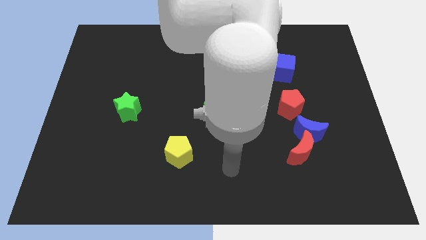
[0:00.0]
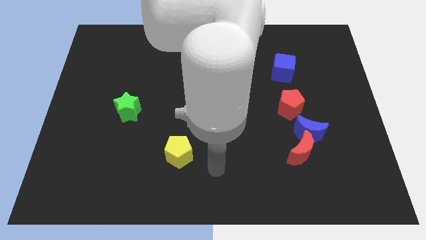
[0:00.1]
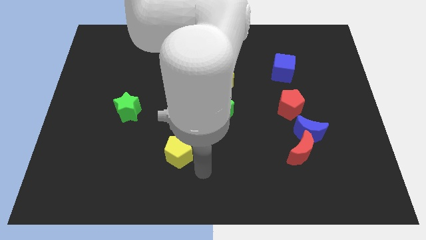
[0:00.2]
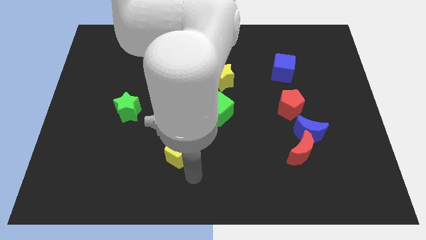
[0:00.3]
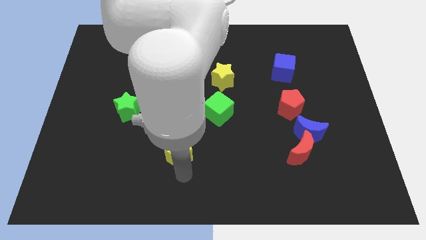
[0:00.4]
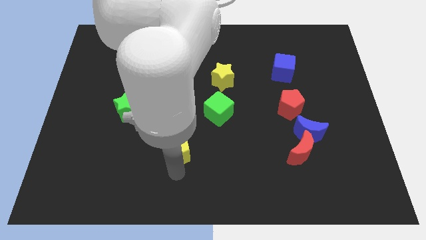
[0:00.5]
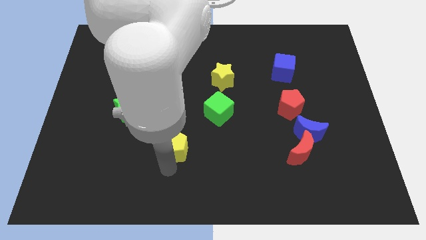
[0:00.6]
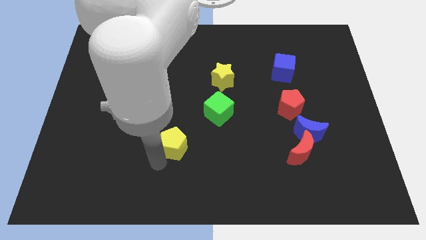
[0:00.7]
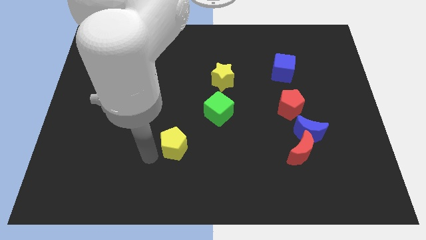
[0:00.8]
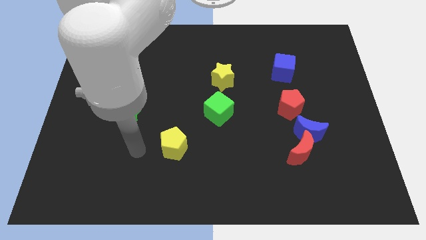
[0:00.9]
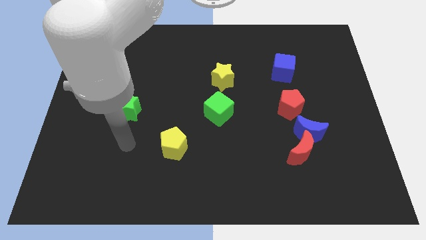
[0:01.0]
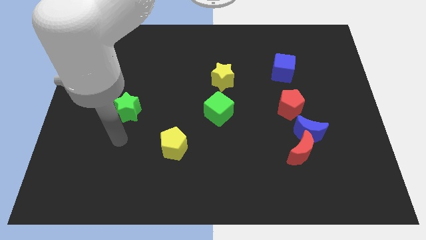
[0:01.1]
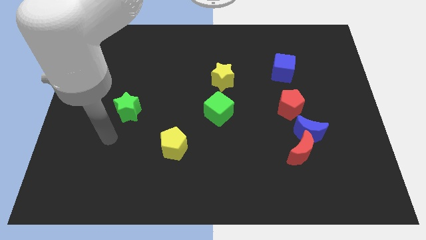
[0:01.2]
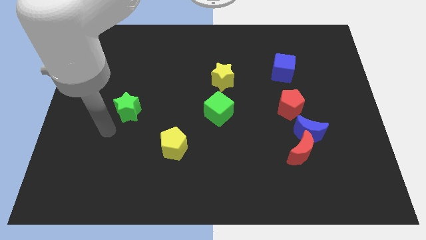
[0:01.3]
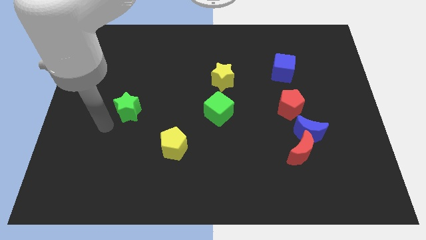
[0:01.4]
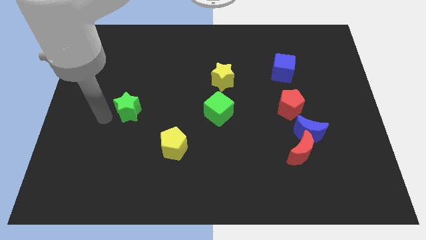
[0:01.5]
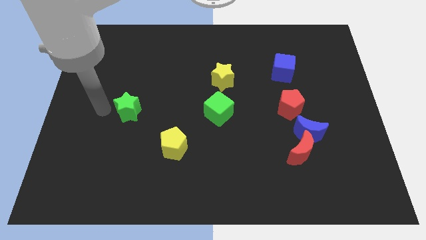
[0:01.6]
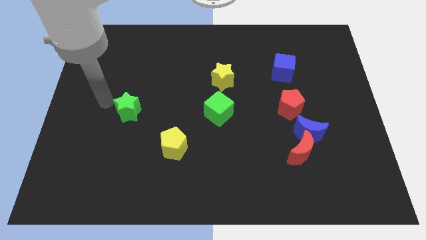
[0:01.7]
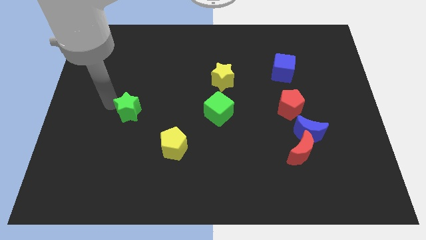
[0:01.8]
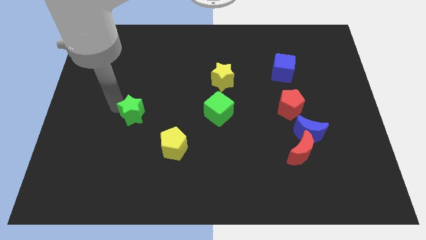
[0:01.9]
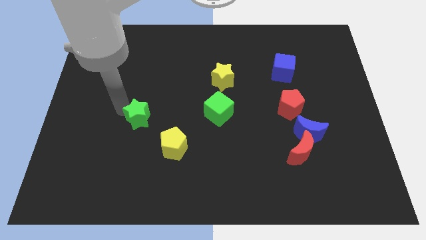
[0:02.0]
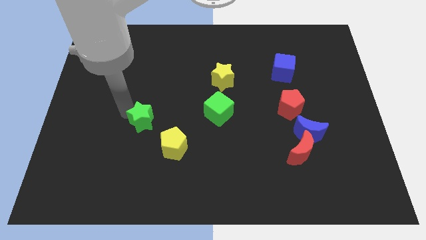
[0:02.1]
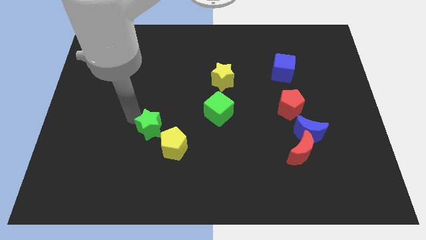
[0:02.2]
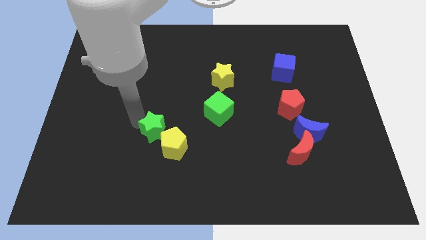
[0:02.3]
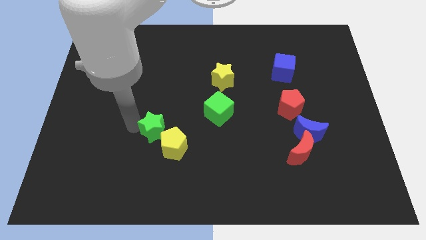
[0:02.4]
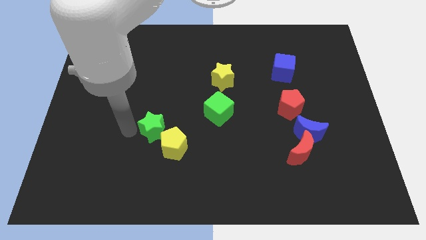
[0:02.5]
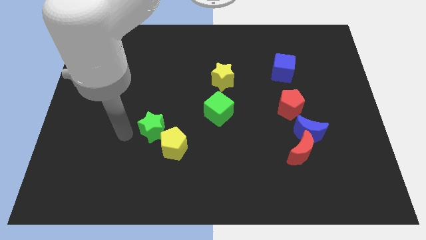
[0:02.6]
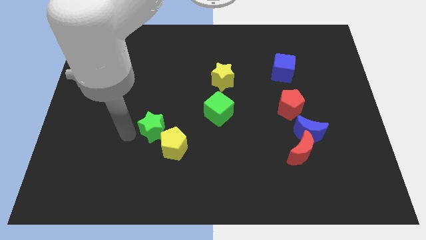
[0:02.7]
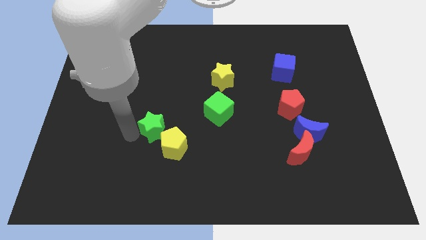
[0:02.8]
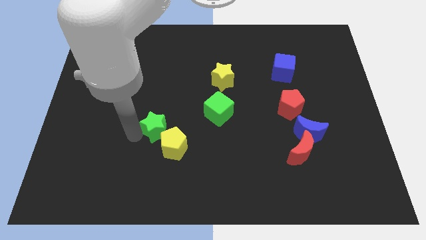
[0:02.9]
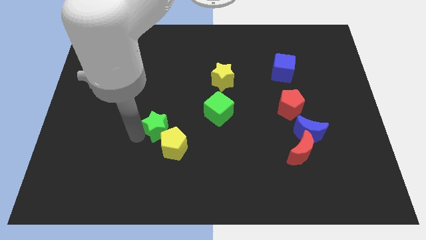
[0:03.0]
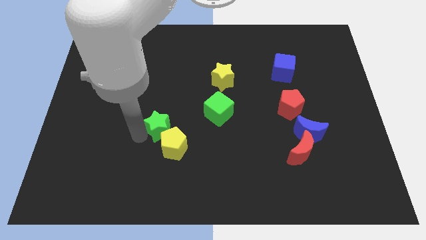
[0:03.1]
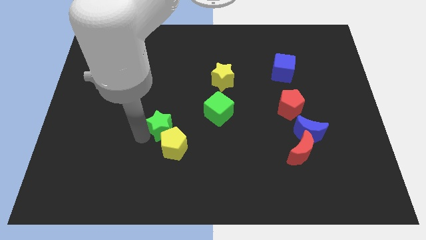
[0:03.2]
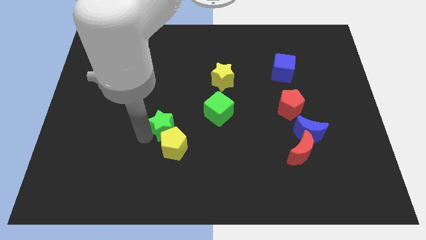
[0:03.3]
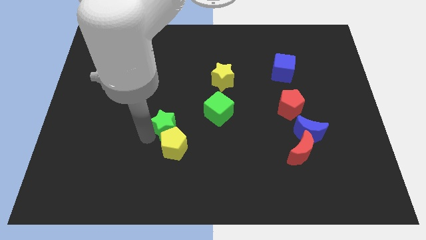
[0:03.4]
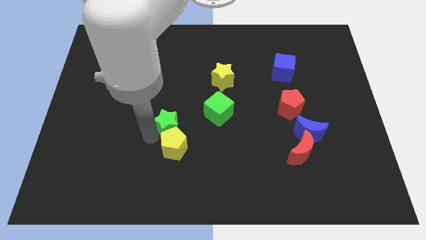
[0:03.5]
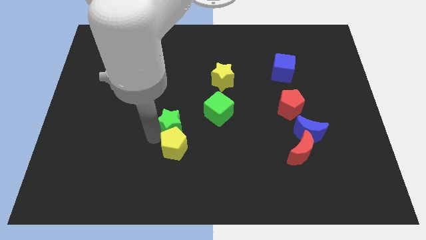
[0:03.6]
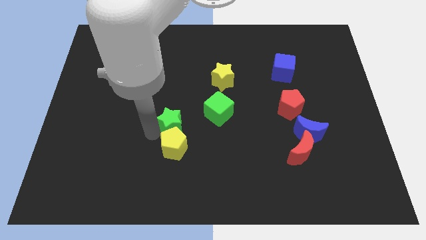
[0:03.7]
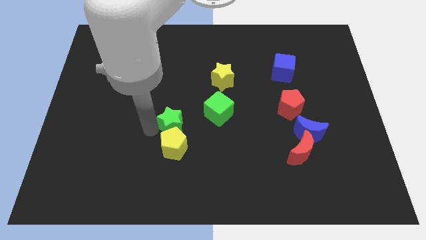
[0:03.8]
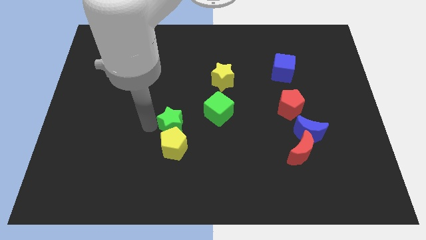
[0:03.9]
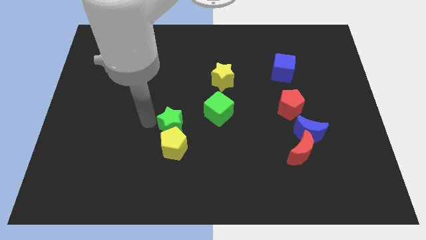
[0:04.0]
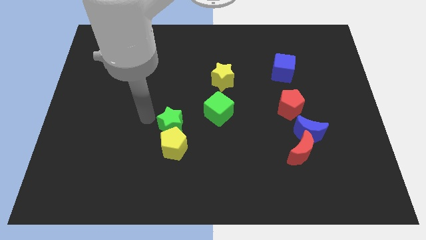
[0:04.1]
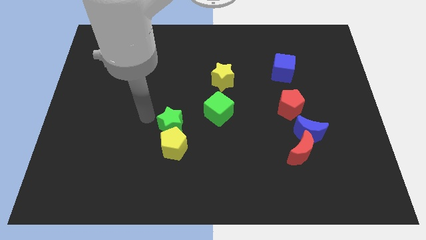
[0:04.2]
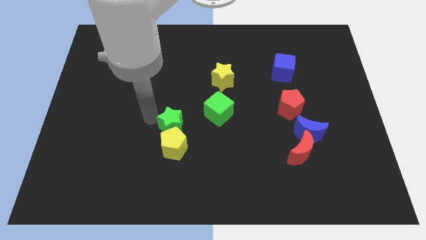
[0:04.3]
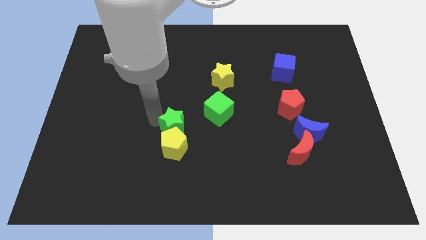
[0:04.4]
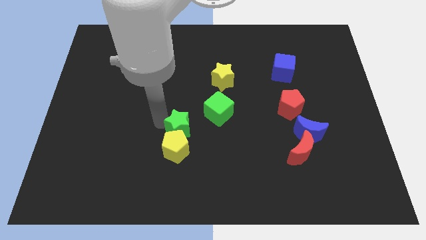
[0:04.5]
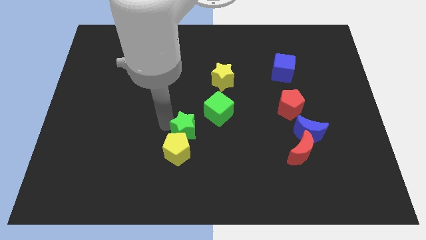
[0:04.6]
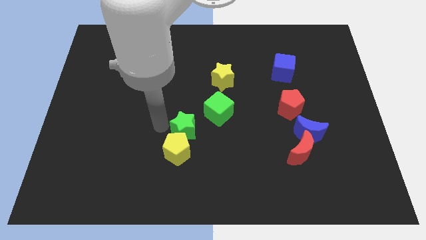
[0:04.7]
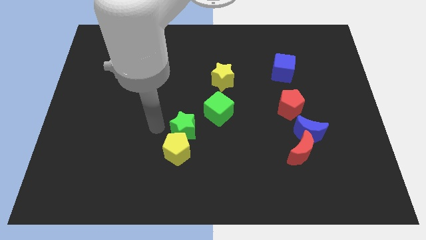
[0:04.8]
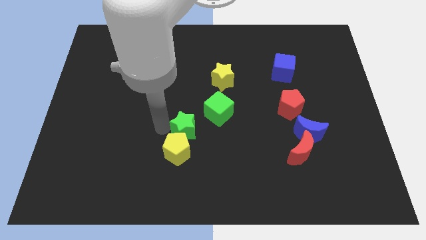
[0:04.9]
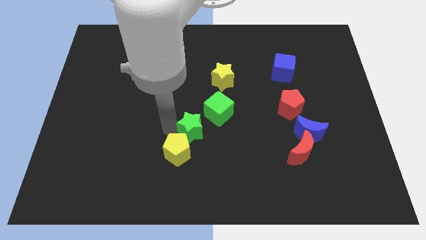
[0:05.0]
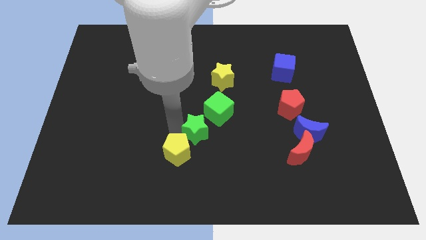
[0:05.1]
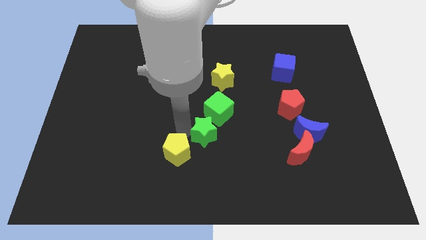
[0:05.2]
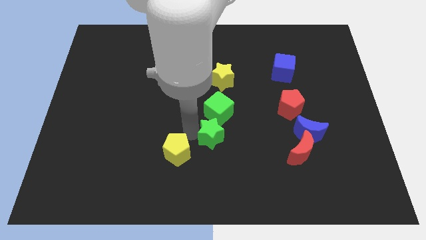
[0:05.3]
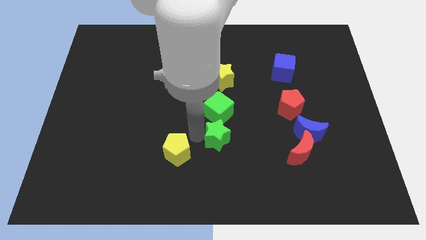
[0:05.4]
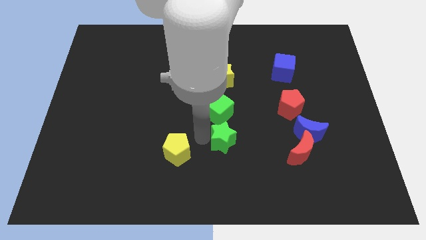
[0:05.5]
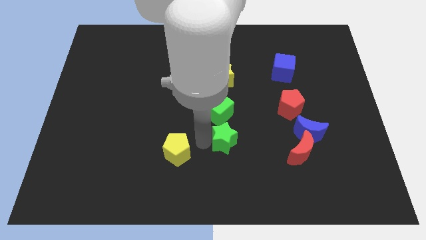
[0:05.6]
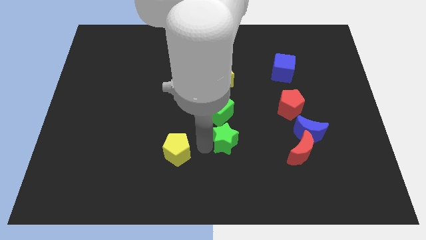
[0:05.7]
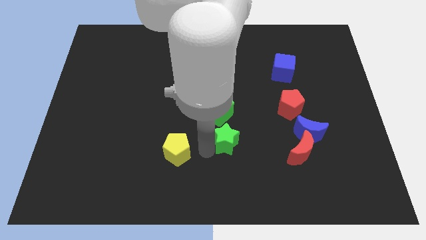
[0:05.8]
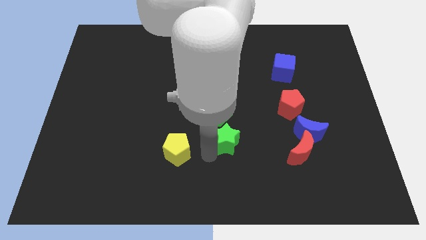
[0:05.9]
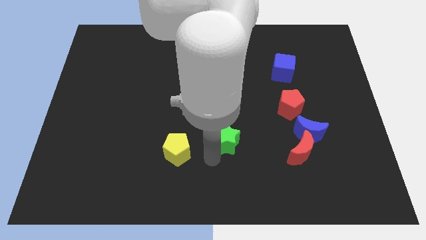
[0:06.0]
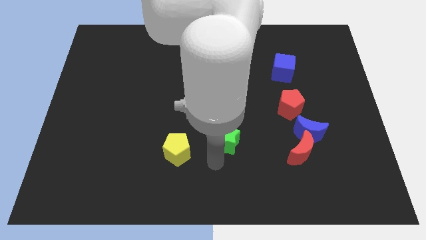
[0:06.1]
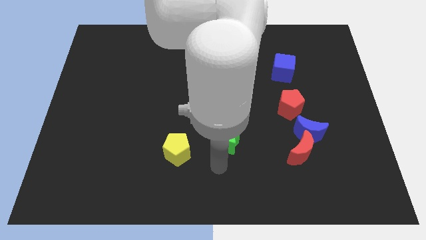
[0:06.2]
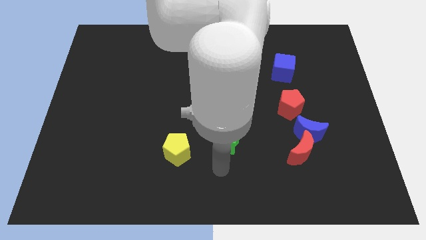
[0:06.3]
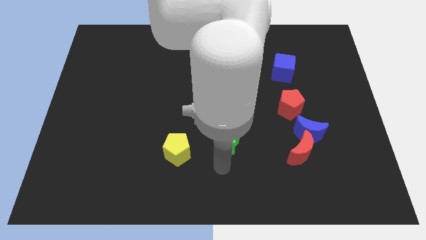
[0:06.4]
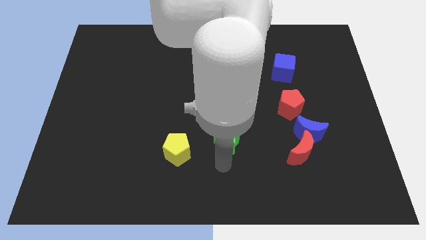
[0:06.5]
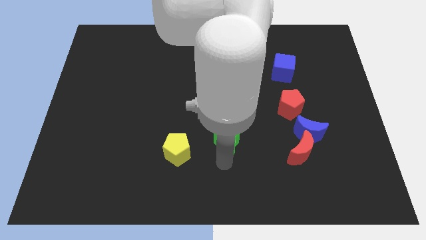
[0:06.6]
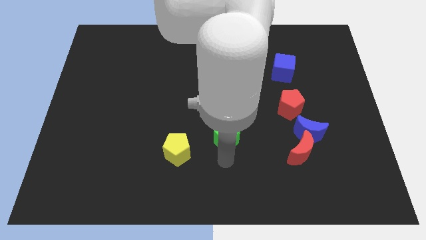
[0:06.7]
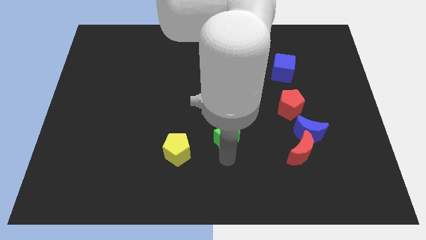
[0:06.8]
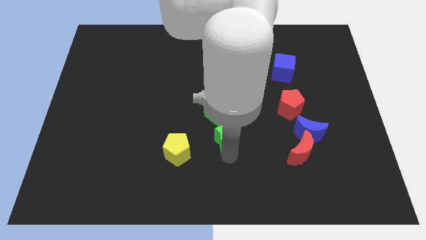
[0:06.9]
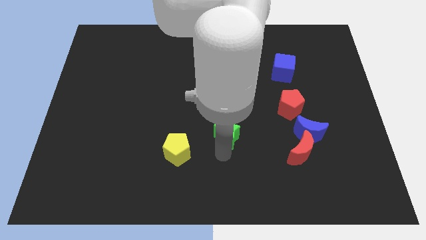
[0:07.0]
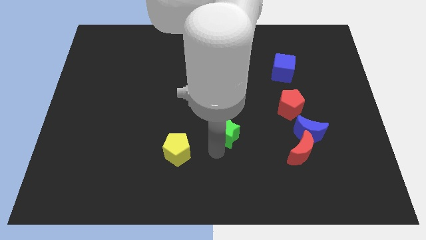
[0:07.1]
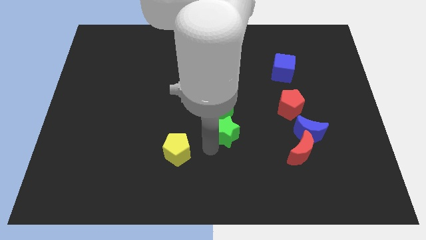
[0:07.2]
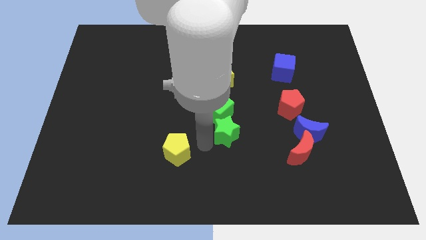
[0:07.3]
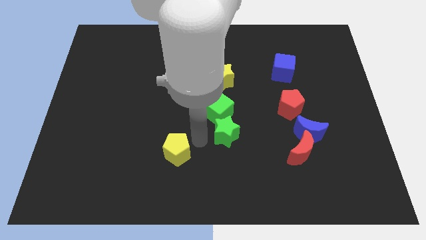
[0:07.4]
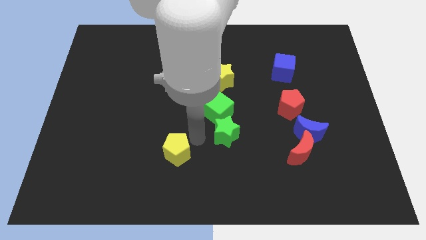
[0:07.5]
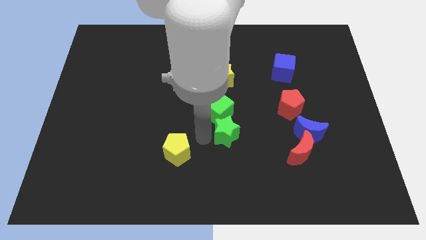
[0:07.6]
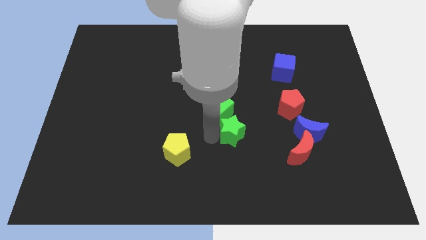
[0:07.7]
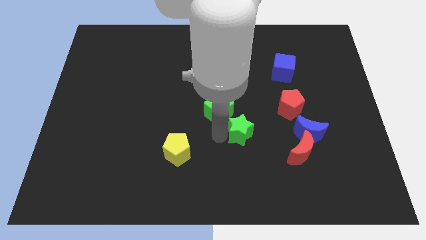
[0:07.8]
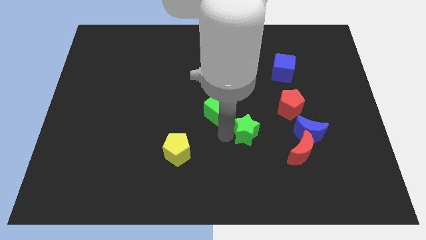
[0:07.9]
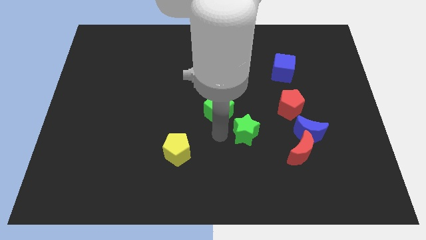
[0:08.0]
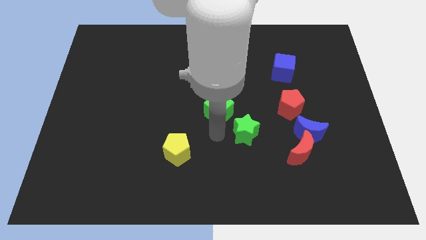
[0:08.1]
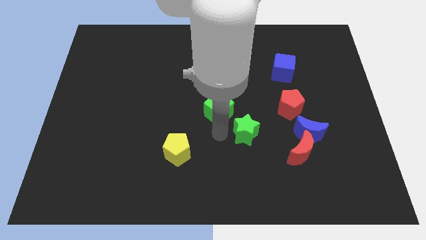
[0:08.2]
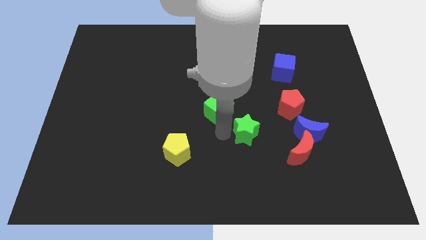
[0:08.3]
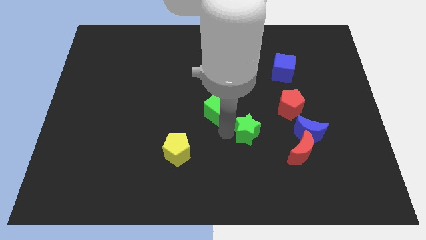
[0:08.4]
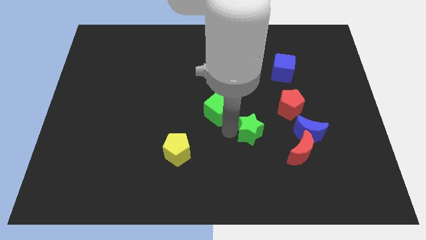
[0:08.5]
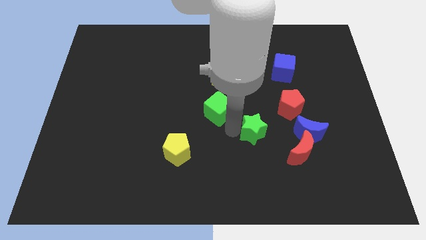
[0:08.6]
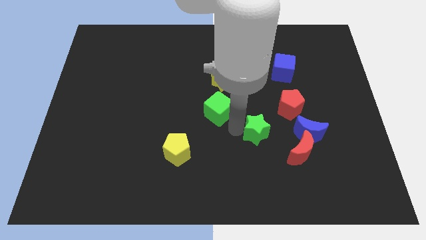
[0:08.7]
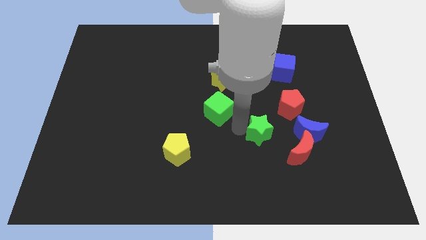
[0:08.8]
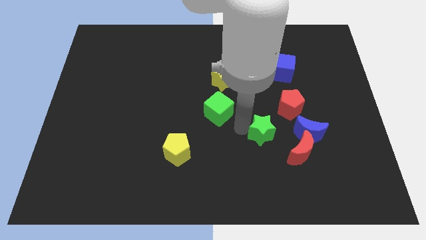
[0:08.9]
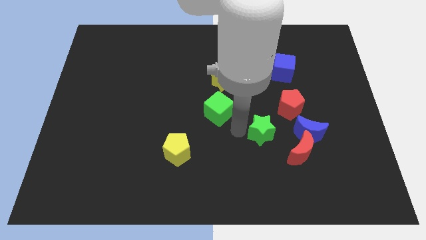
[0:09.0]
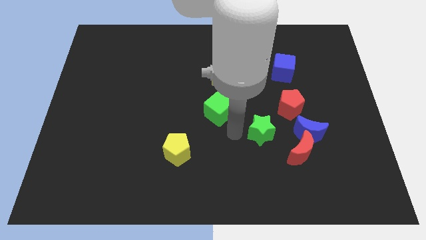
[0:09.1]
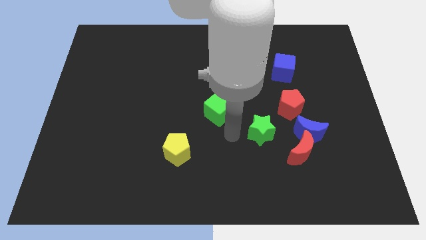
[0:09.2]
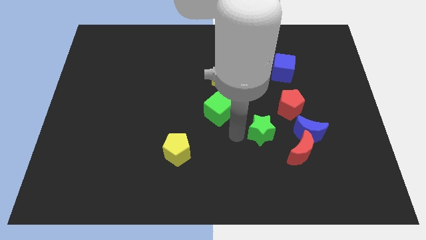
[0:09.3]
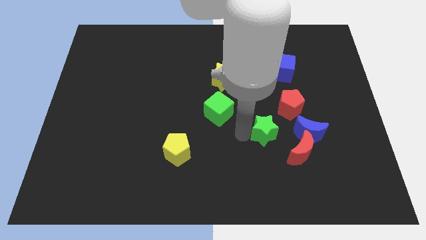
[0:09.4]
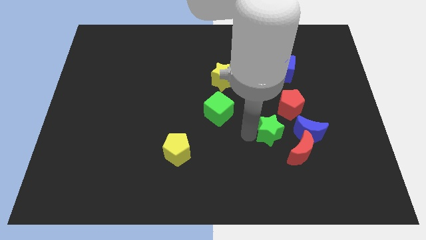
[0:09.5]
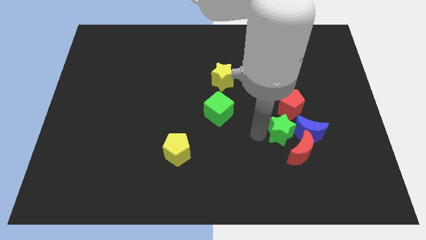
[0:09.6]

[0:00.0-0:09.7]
move the green star next to the blue moon
